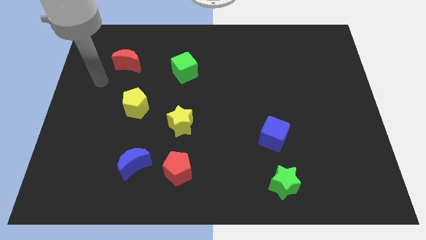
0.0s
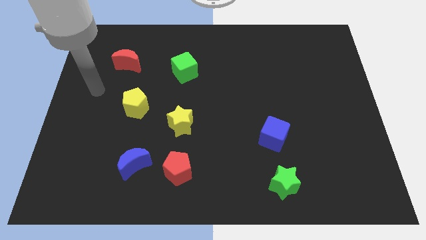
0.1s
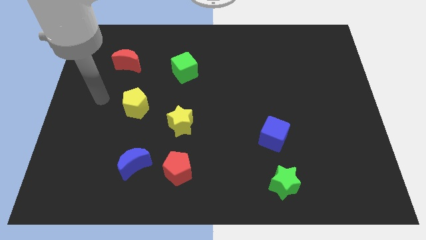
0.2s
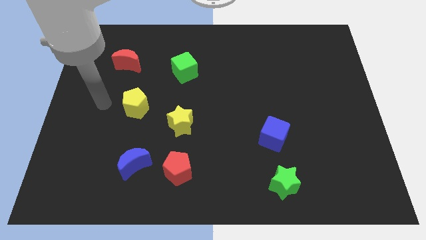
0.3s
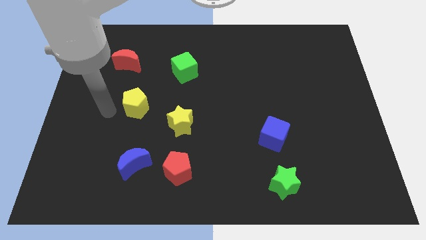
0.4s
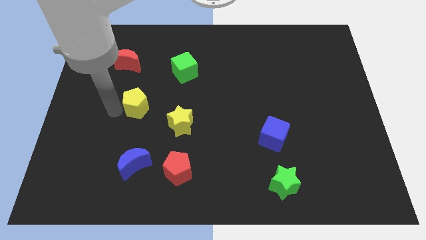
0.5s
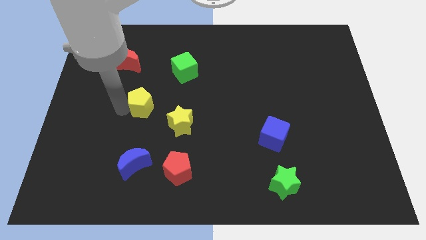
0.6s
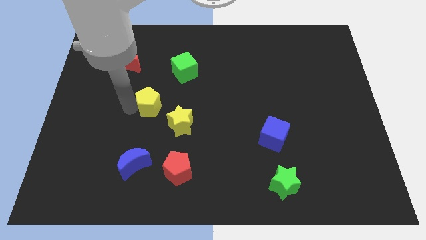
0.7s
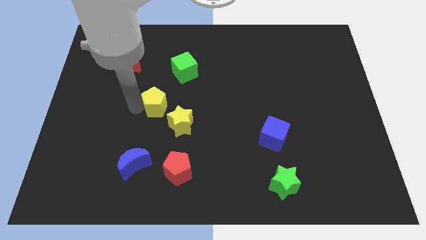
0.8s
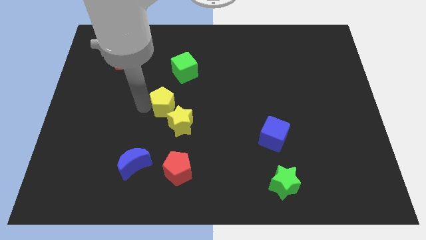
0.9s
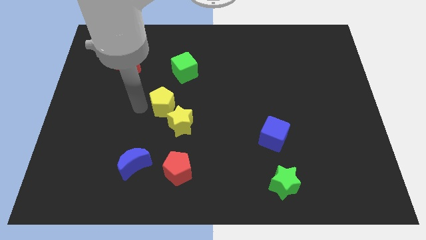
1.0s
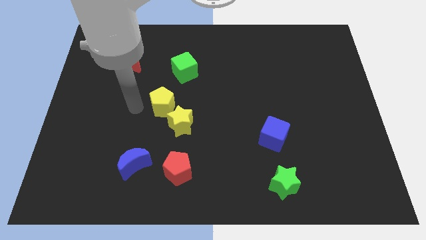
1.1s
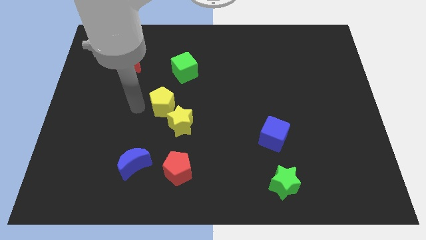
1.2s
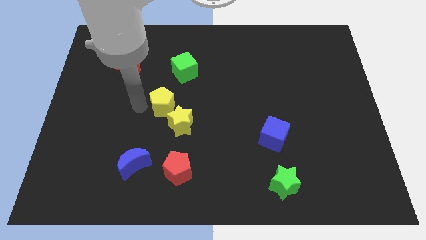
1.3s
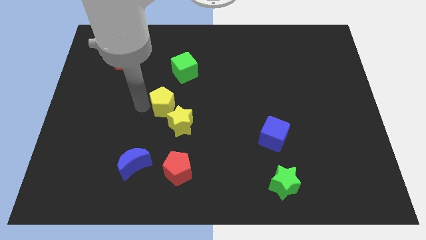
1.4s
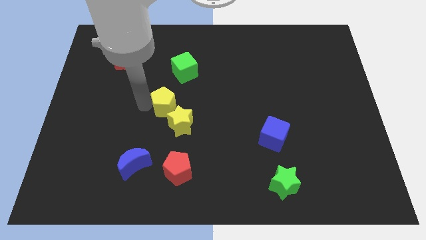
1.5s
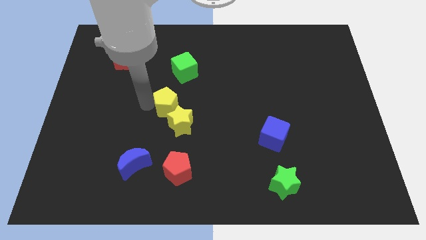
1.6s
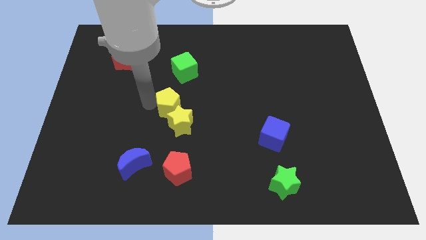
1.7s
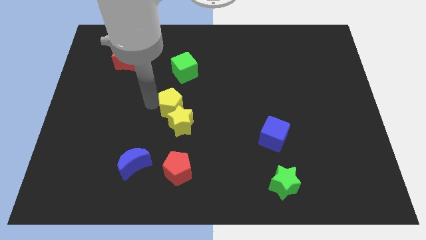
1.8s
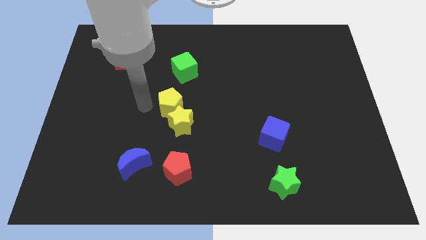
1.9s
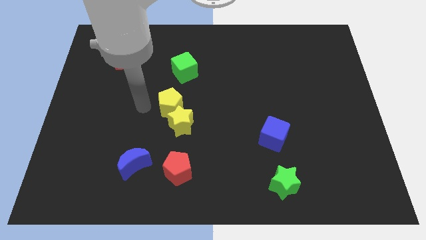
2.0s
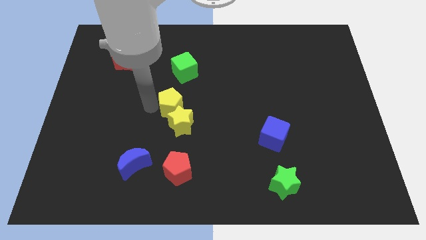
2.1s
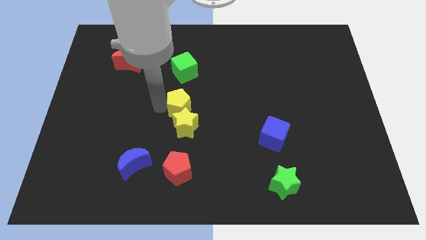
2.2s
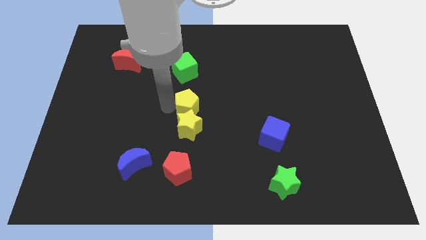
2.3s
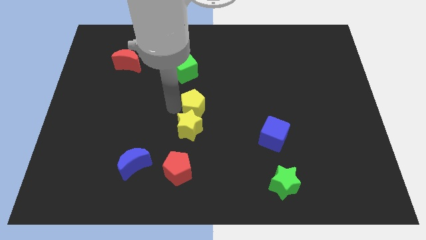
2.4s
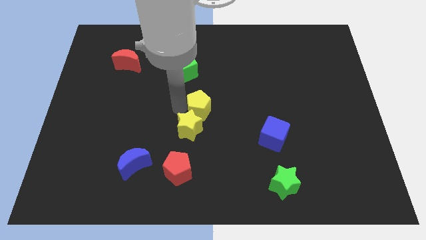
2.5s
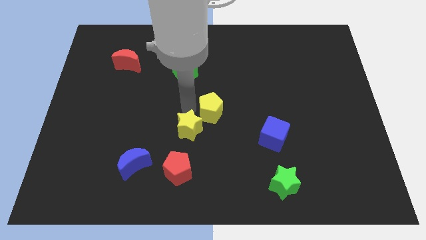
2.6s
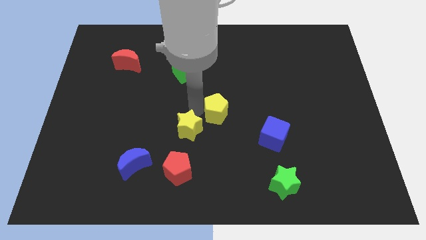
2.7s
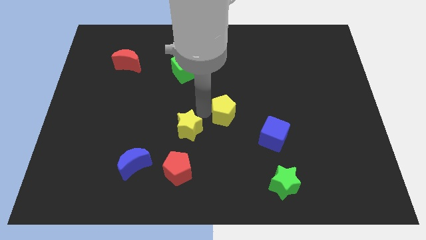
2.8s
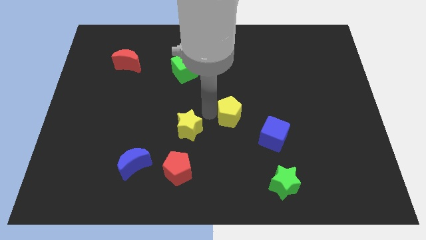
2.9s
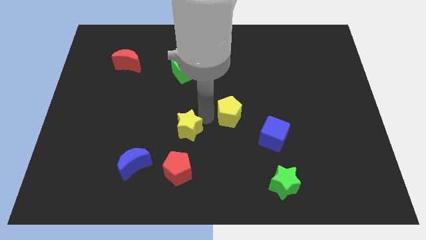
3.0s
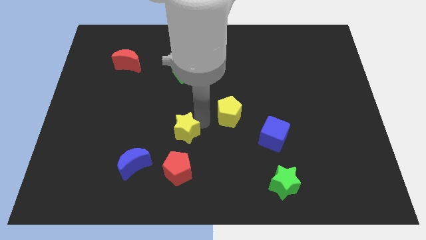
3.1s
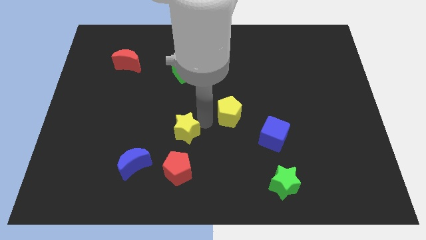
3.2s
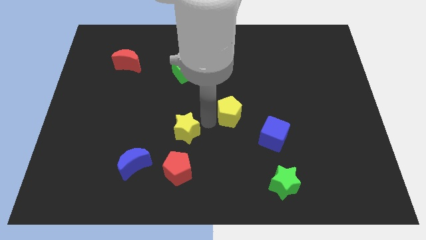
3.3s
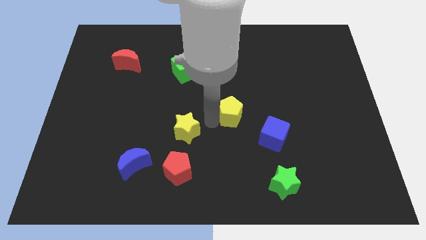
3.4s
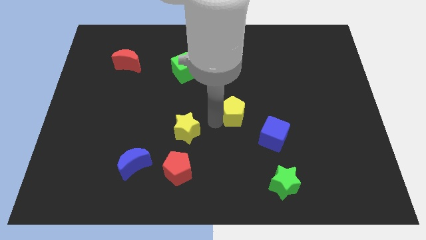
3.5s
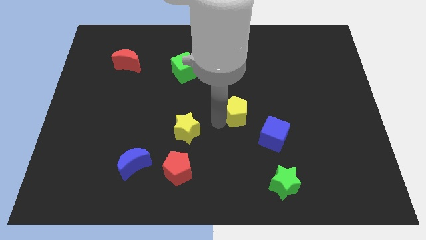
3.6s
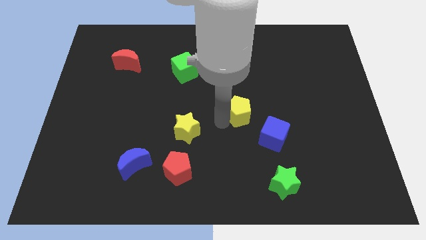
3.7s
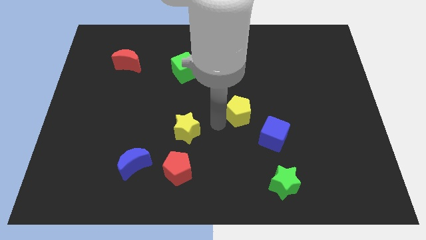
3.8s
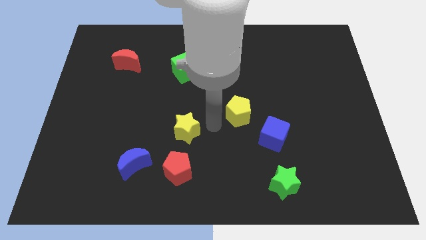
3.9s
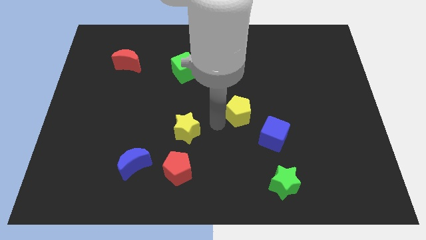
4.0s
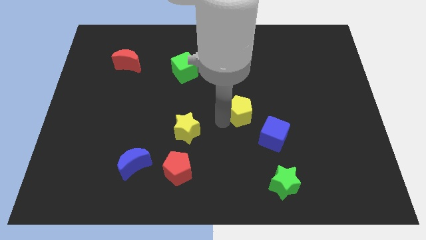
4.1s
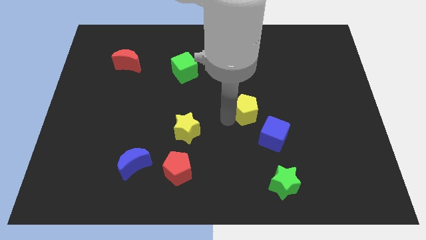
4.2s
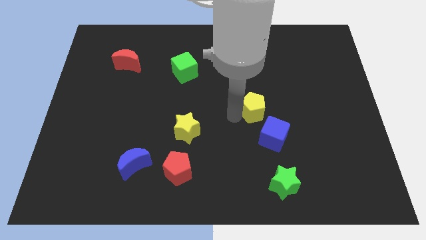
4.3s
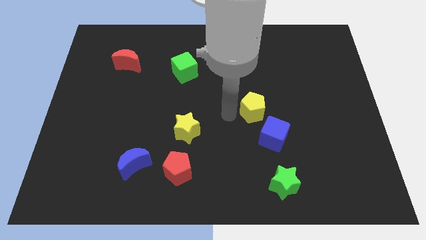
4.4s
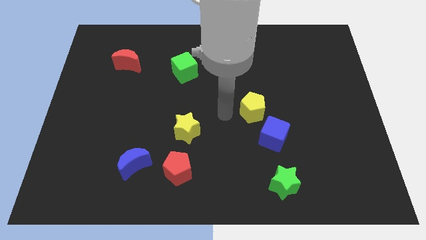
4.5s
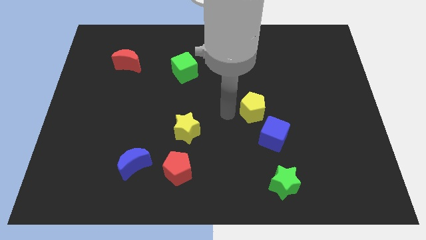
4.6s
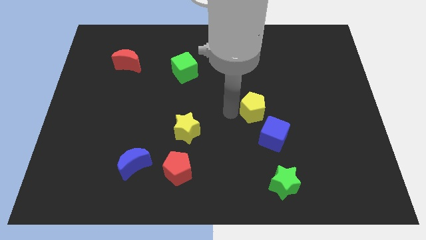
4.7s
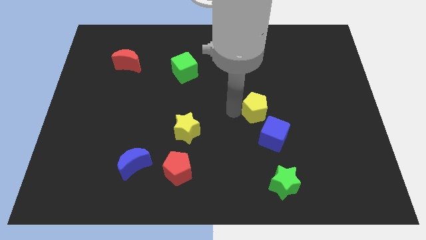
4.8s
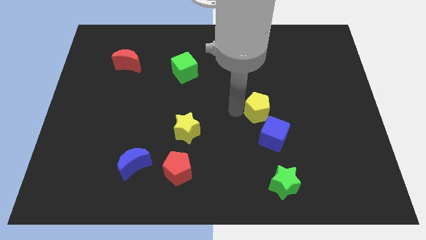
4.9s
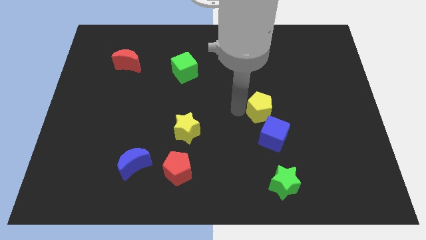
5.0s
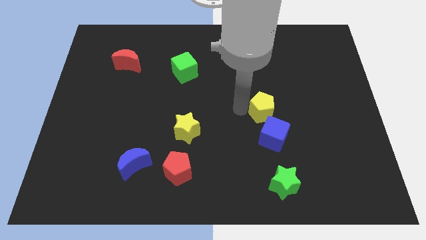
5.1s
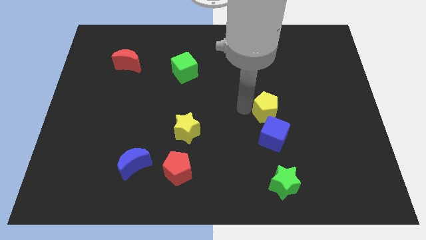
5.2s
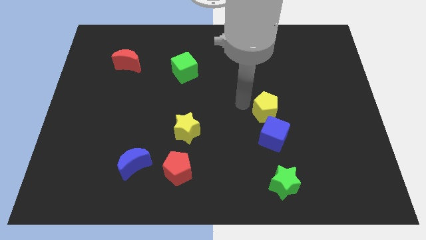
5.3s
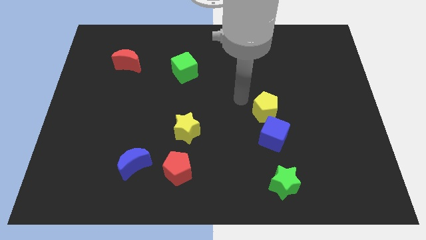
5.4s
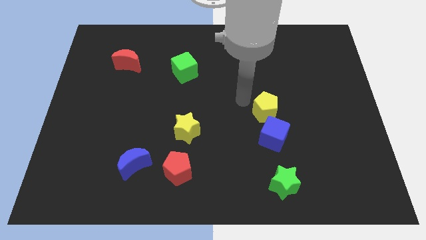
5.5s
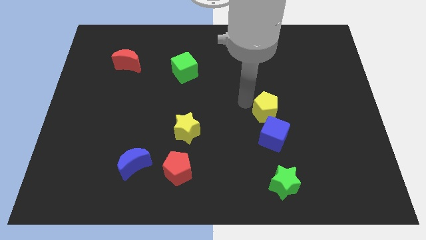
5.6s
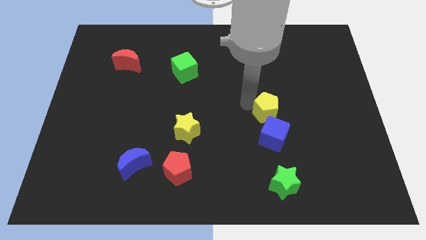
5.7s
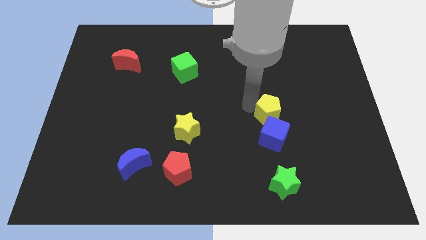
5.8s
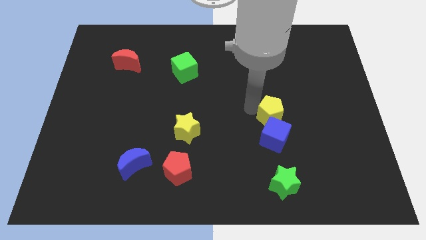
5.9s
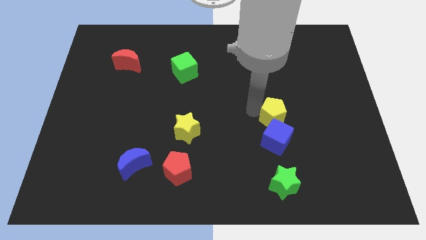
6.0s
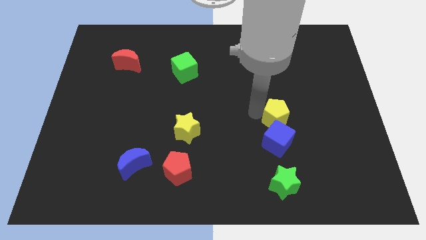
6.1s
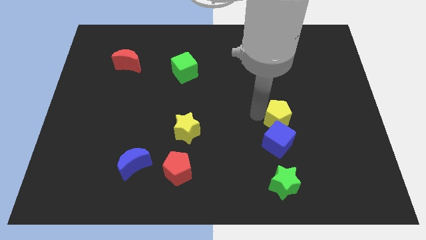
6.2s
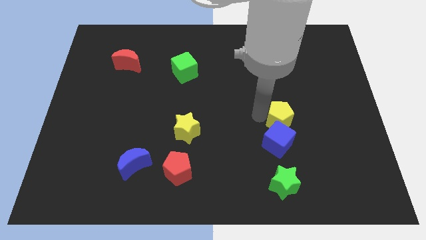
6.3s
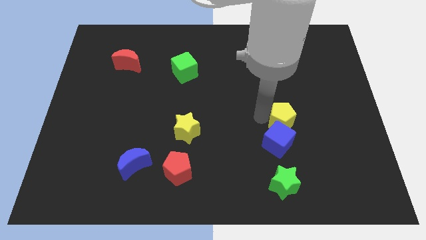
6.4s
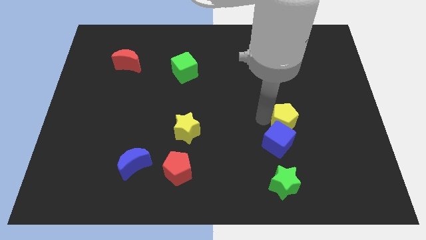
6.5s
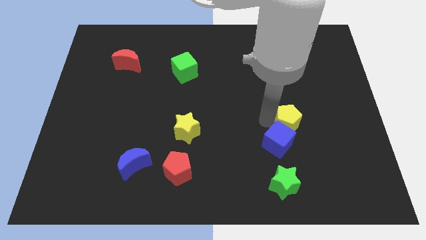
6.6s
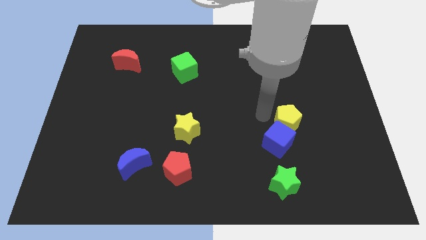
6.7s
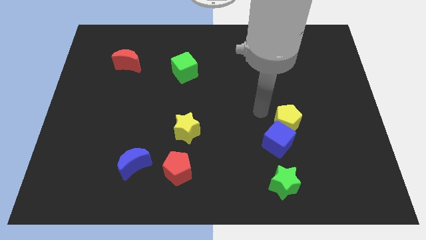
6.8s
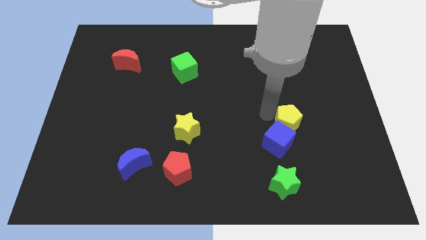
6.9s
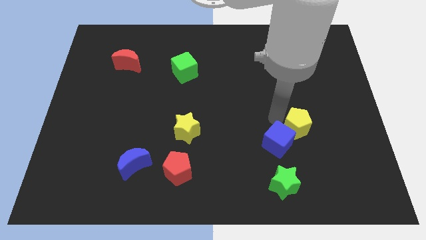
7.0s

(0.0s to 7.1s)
slide the yellow pentagon just right of the blue cube
